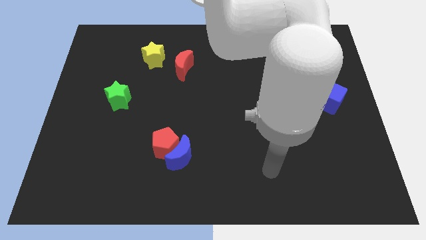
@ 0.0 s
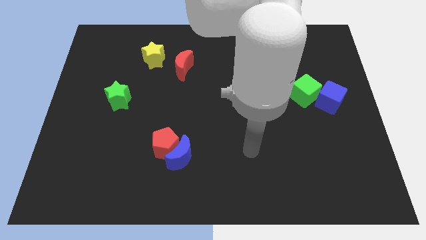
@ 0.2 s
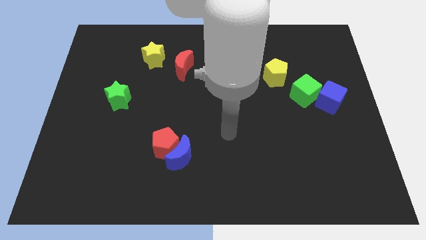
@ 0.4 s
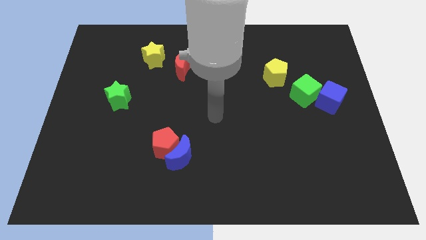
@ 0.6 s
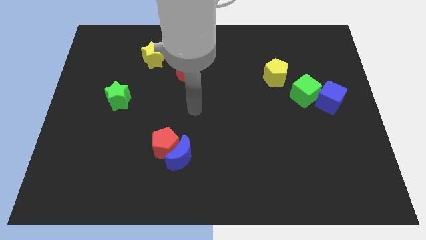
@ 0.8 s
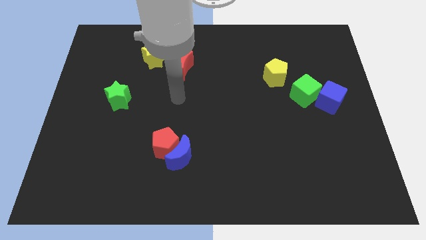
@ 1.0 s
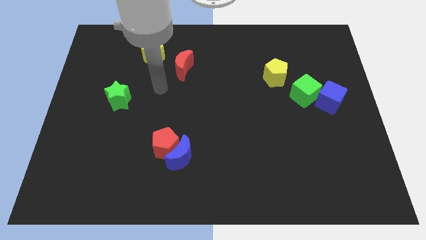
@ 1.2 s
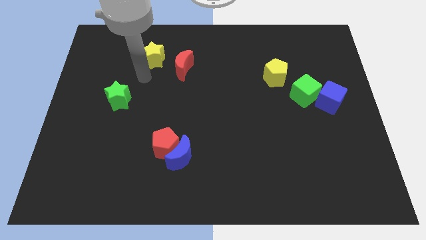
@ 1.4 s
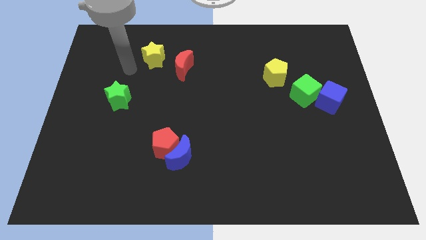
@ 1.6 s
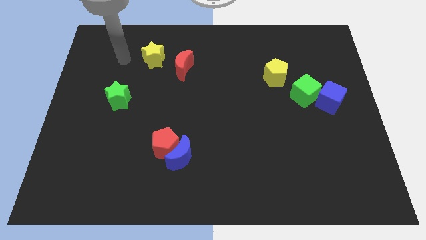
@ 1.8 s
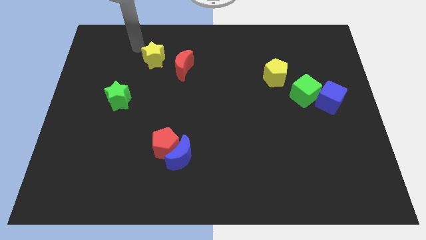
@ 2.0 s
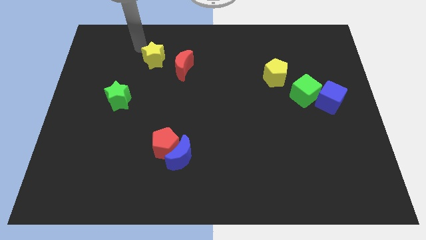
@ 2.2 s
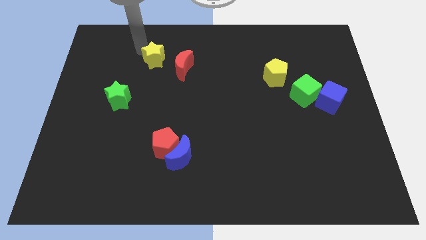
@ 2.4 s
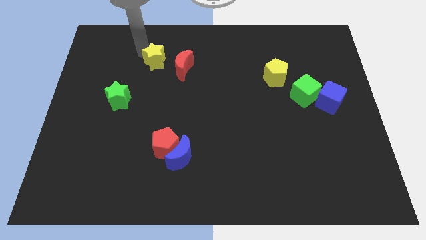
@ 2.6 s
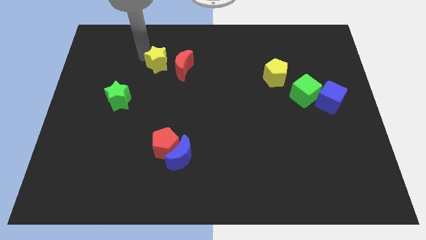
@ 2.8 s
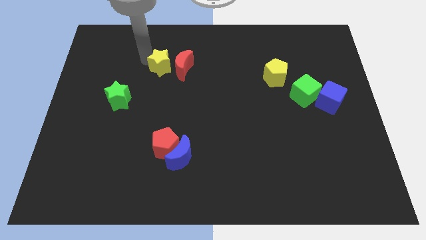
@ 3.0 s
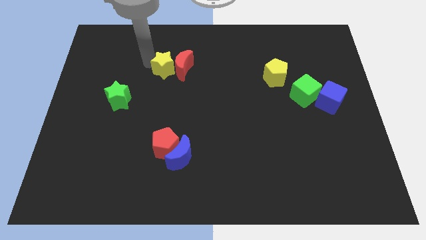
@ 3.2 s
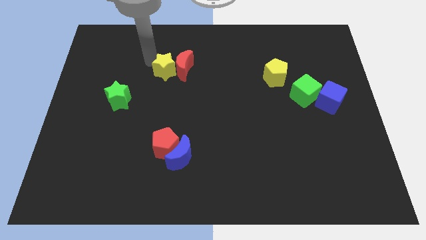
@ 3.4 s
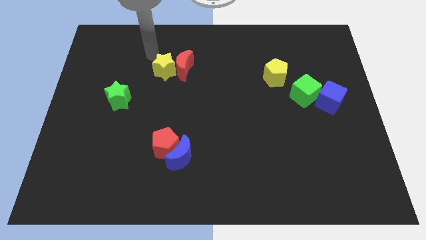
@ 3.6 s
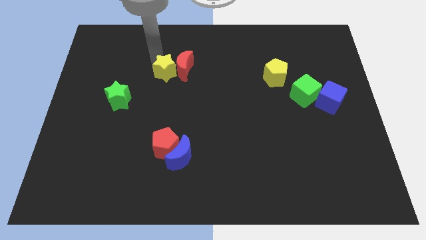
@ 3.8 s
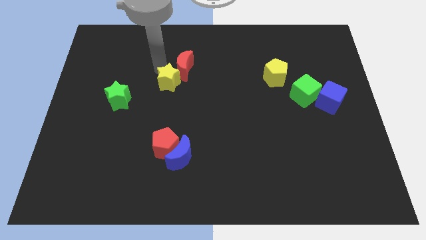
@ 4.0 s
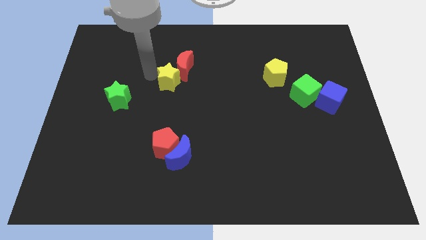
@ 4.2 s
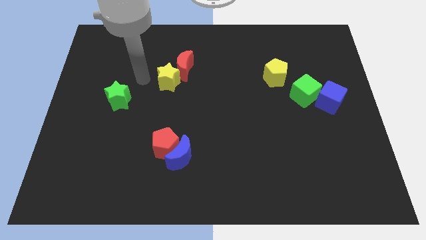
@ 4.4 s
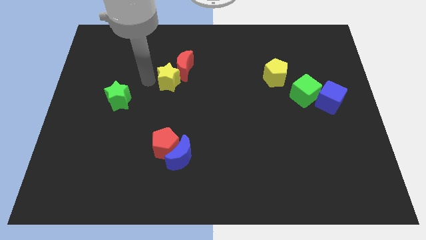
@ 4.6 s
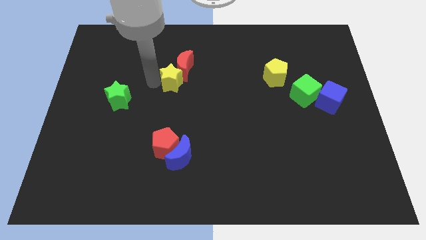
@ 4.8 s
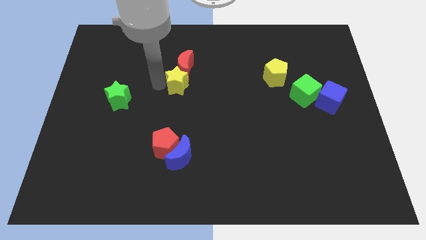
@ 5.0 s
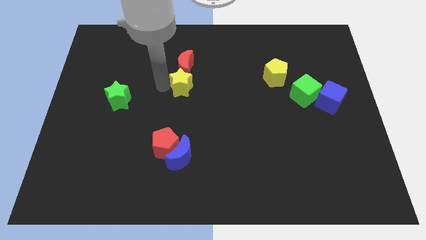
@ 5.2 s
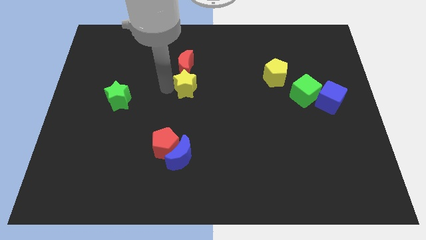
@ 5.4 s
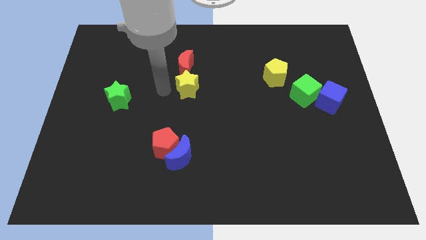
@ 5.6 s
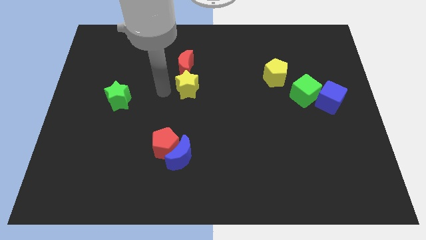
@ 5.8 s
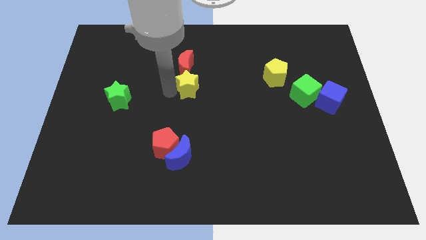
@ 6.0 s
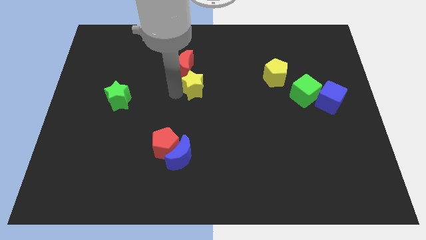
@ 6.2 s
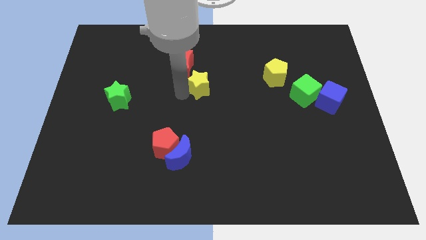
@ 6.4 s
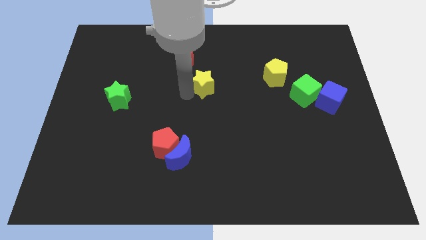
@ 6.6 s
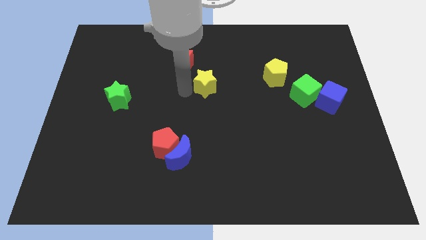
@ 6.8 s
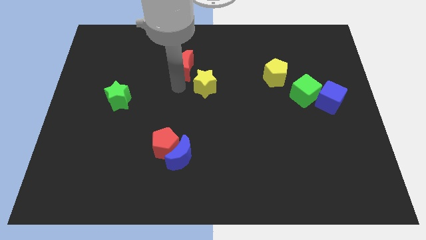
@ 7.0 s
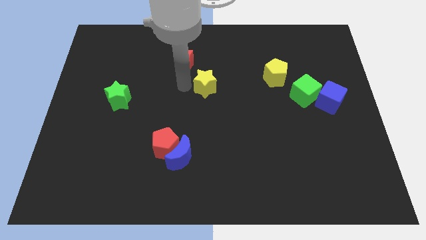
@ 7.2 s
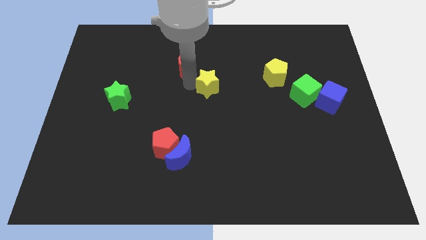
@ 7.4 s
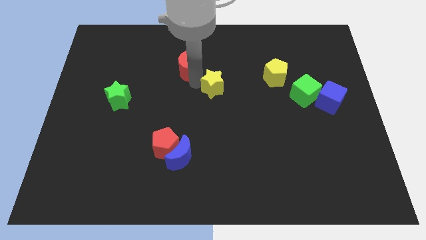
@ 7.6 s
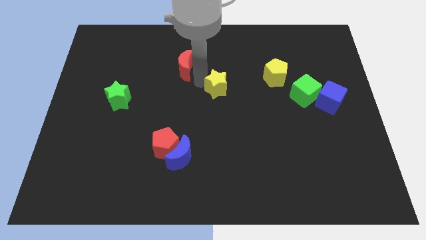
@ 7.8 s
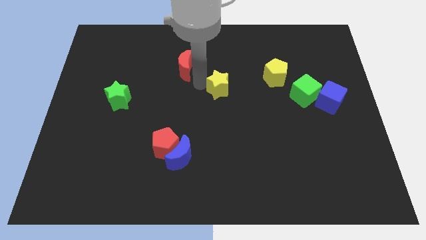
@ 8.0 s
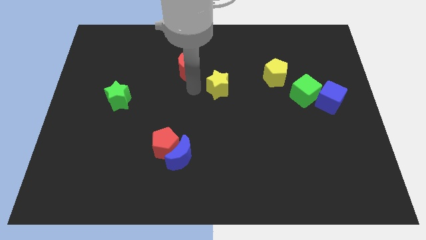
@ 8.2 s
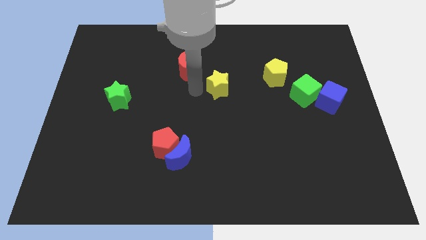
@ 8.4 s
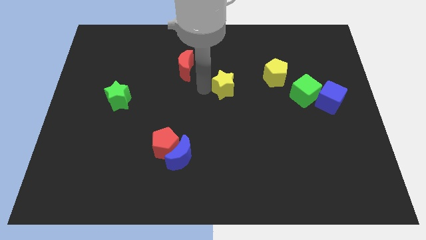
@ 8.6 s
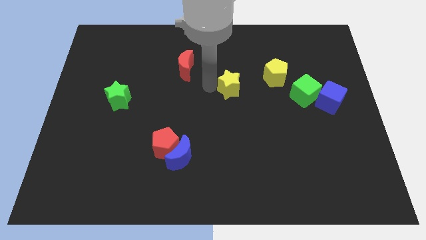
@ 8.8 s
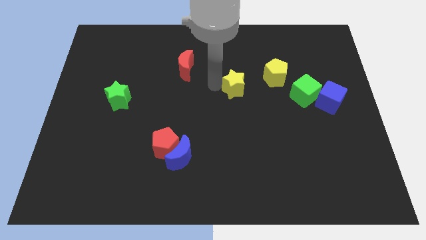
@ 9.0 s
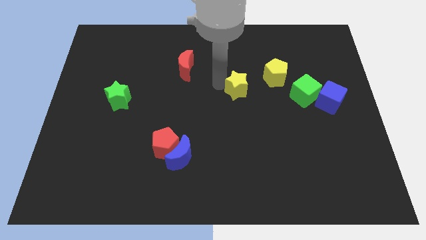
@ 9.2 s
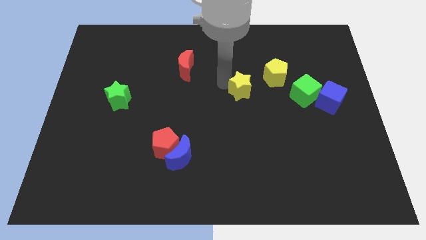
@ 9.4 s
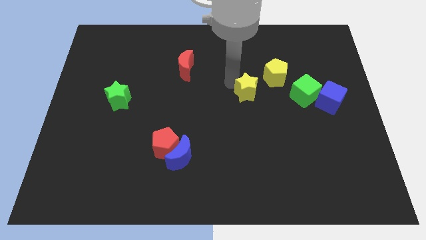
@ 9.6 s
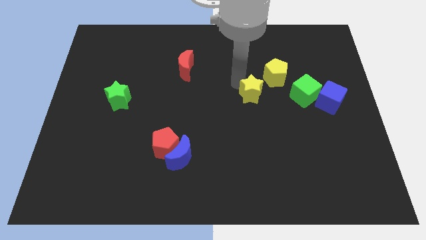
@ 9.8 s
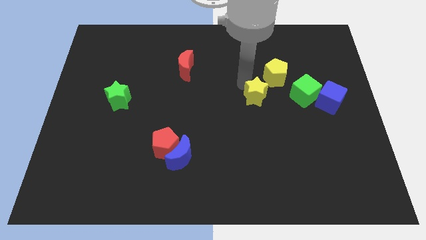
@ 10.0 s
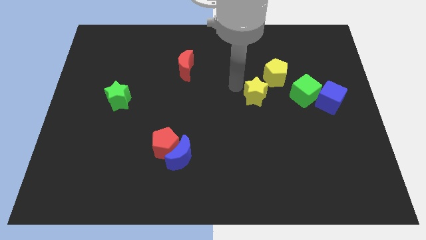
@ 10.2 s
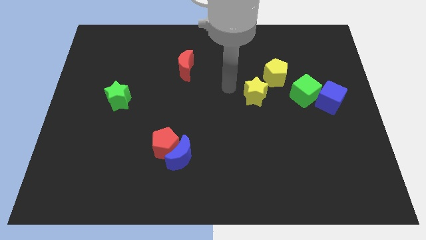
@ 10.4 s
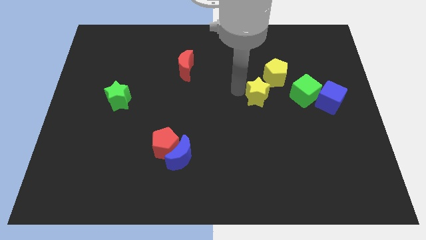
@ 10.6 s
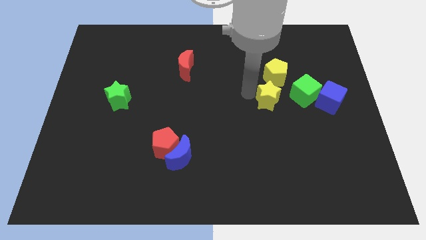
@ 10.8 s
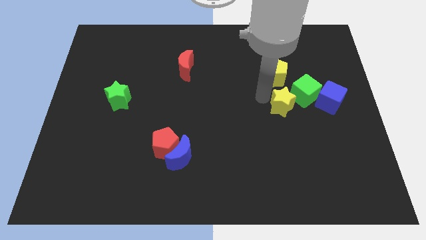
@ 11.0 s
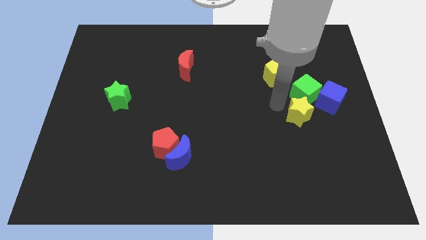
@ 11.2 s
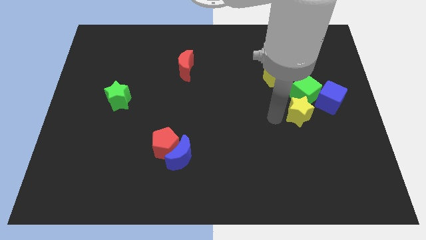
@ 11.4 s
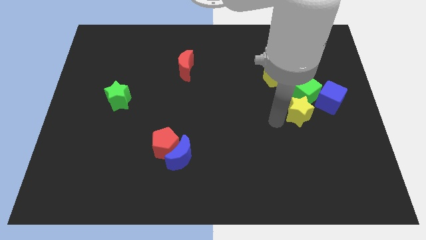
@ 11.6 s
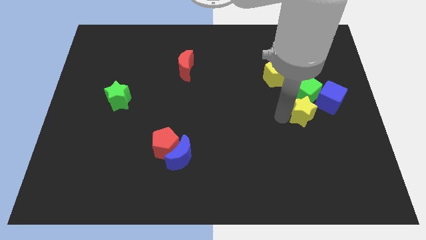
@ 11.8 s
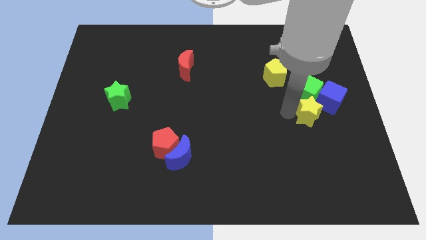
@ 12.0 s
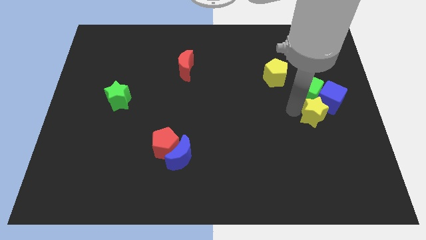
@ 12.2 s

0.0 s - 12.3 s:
move the yellow star towards the blue cube

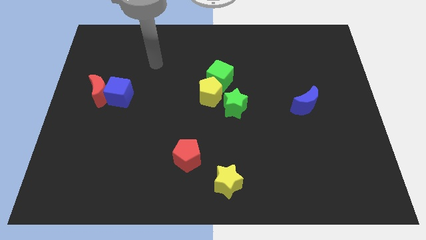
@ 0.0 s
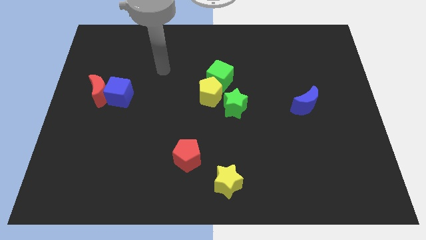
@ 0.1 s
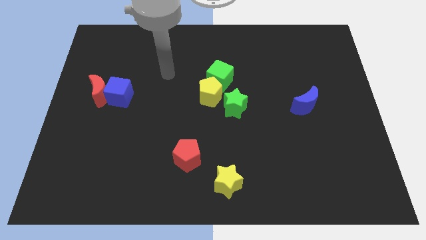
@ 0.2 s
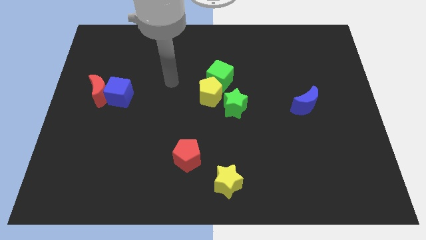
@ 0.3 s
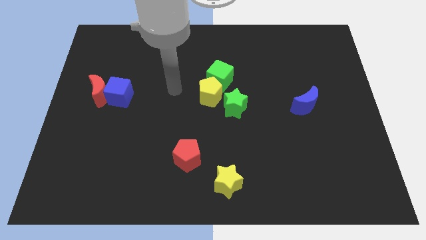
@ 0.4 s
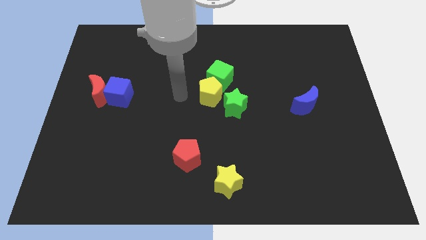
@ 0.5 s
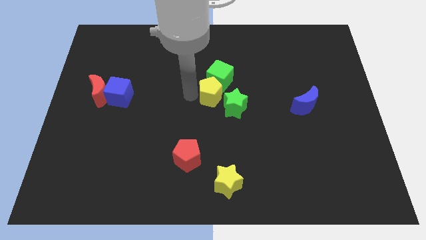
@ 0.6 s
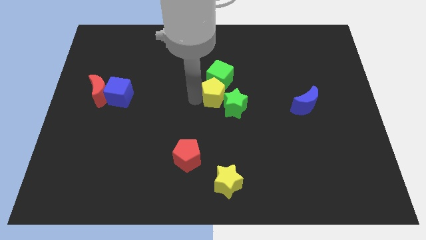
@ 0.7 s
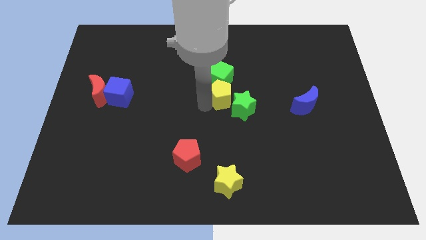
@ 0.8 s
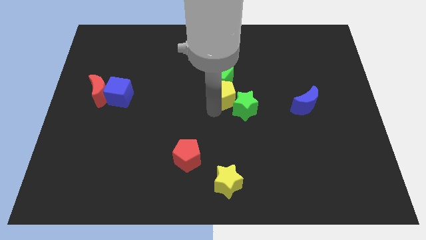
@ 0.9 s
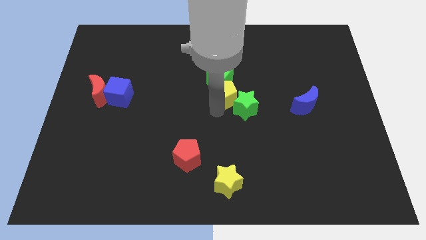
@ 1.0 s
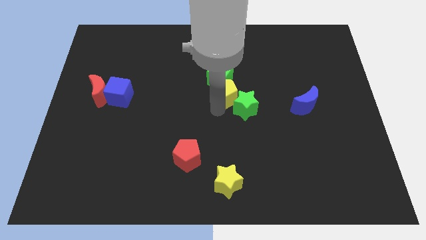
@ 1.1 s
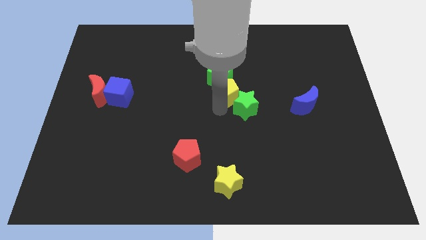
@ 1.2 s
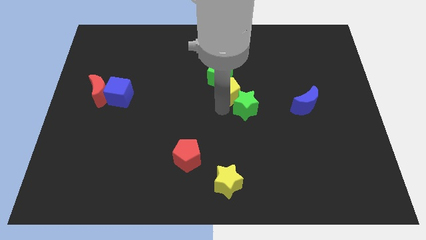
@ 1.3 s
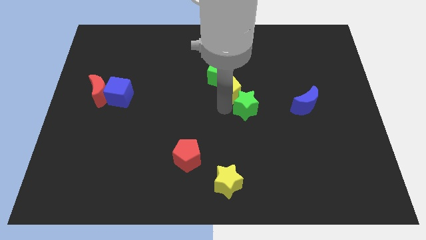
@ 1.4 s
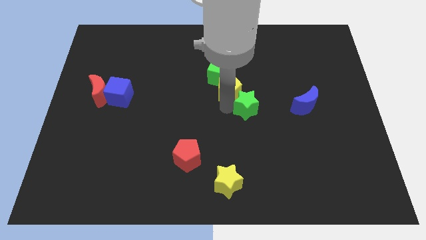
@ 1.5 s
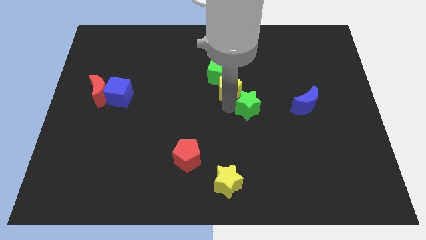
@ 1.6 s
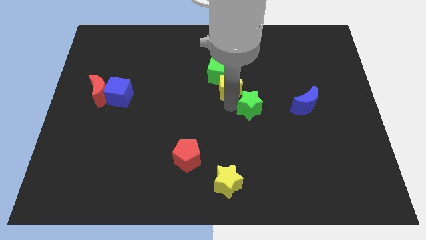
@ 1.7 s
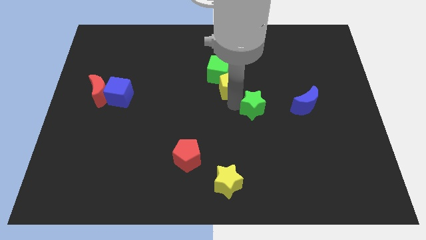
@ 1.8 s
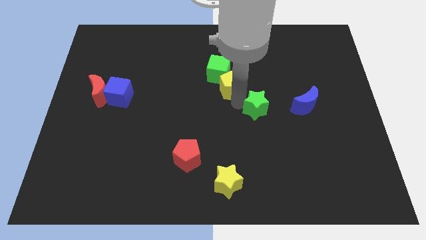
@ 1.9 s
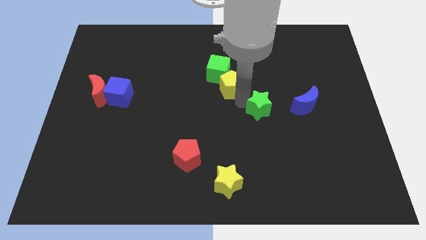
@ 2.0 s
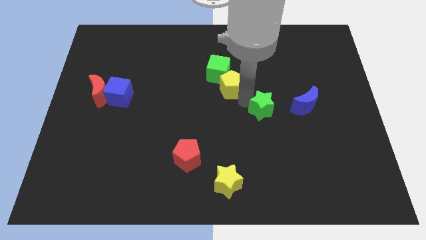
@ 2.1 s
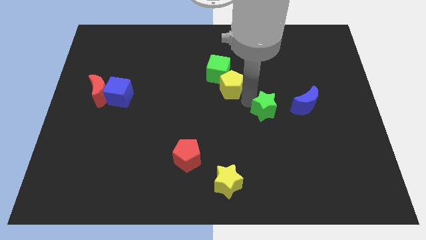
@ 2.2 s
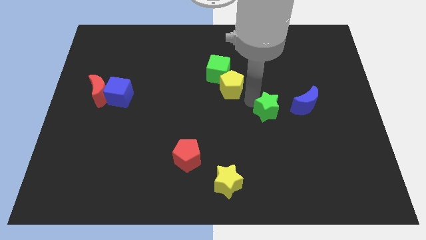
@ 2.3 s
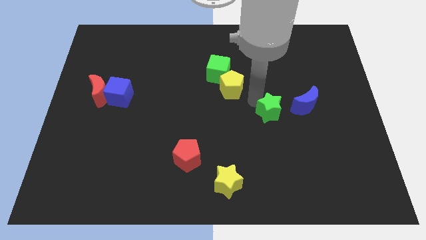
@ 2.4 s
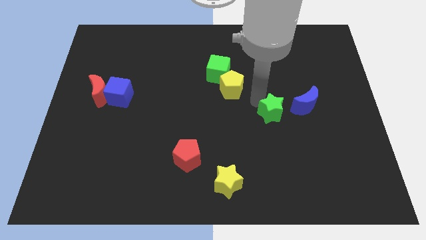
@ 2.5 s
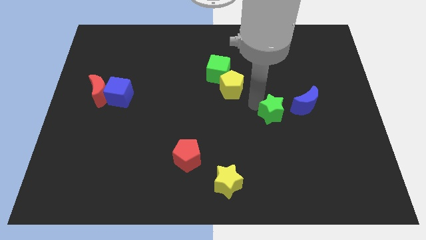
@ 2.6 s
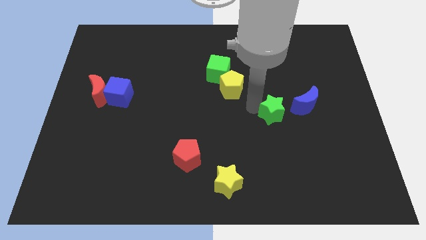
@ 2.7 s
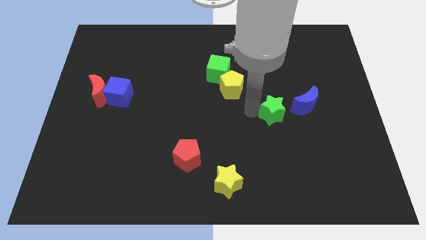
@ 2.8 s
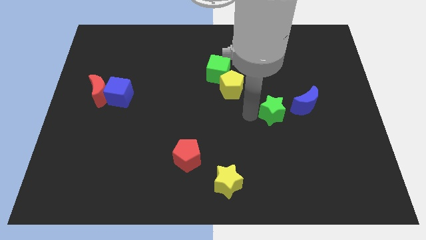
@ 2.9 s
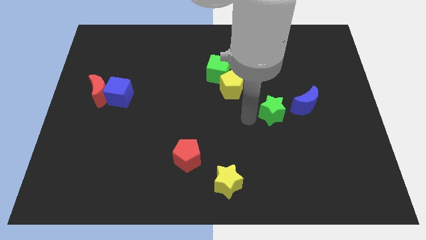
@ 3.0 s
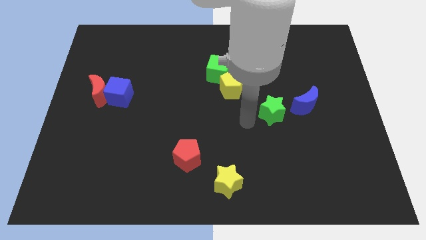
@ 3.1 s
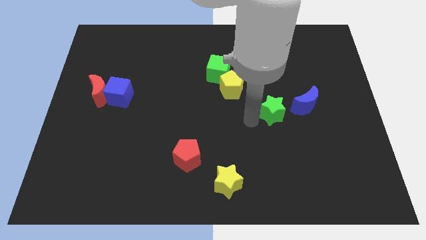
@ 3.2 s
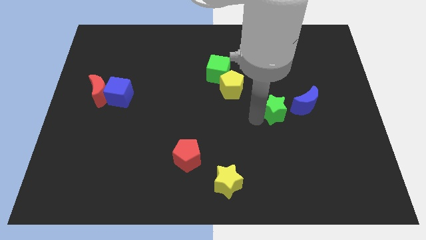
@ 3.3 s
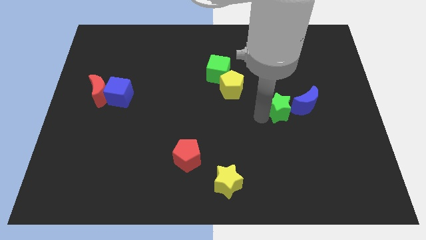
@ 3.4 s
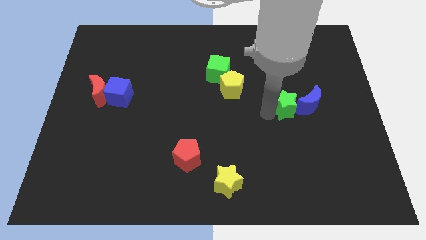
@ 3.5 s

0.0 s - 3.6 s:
push the green star to the blue moon
